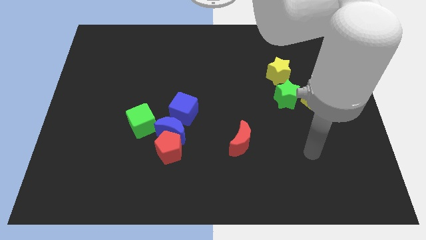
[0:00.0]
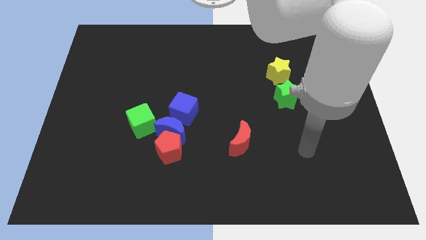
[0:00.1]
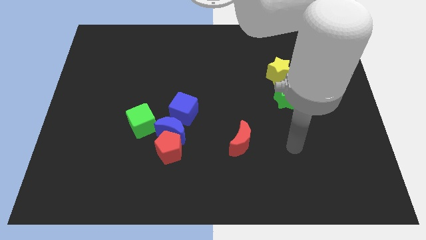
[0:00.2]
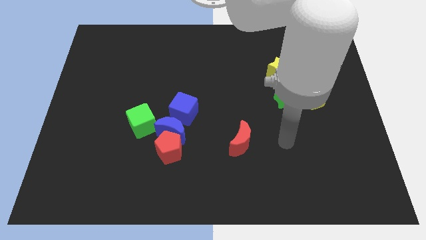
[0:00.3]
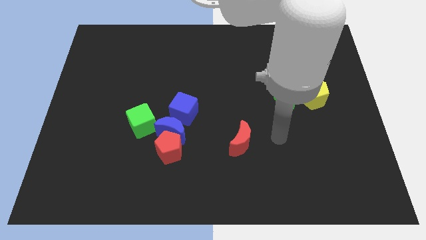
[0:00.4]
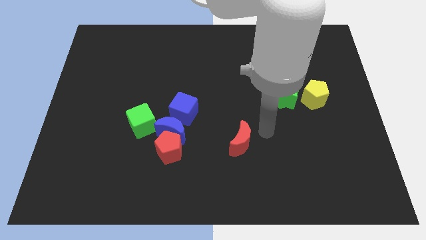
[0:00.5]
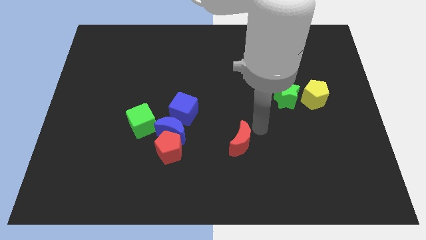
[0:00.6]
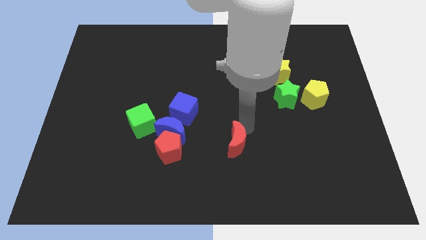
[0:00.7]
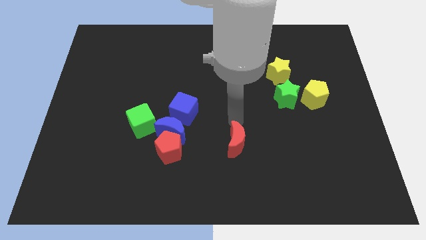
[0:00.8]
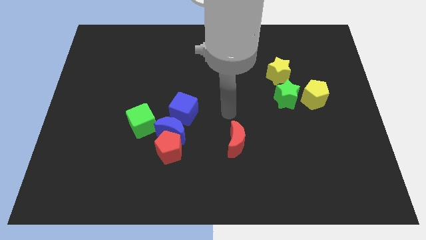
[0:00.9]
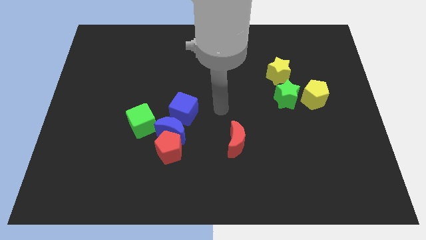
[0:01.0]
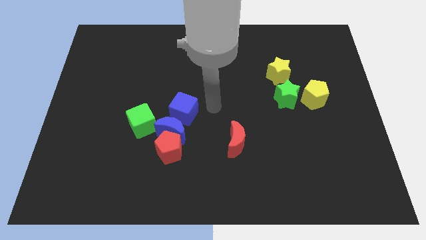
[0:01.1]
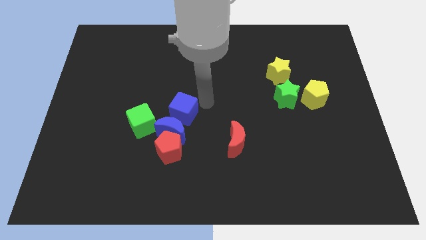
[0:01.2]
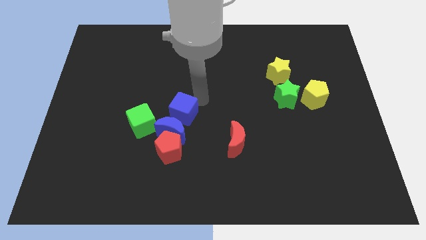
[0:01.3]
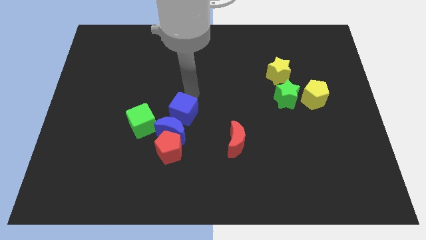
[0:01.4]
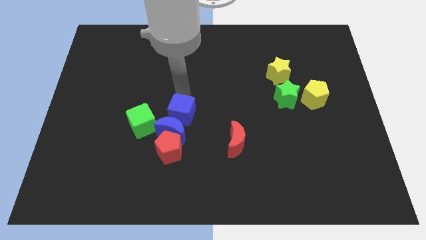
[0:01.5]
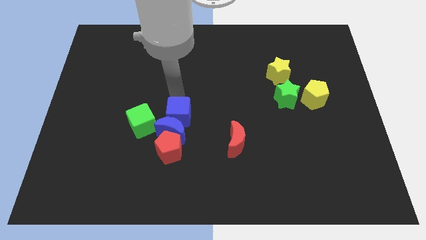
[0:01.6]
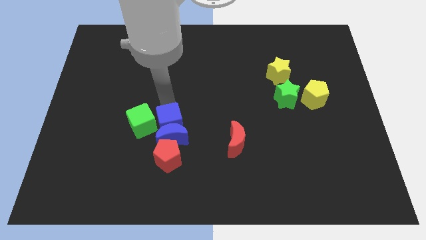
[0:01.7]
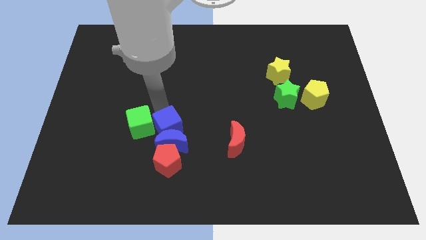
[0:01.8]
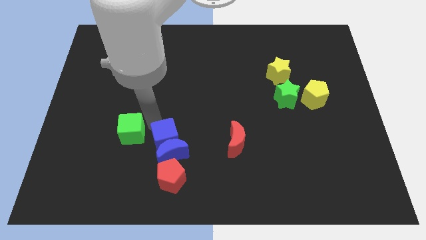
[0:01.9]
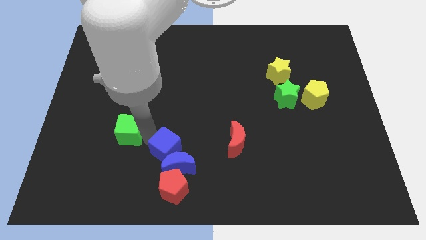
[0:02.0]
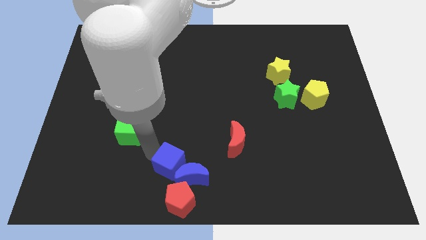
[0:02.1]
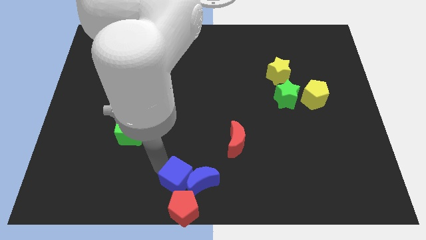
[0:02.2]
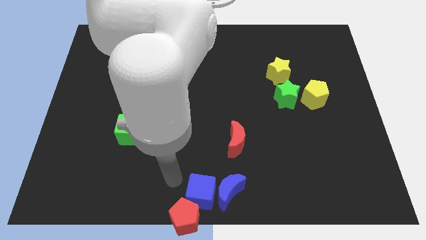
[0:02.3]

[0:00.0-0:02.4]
move the blue moon away from the group of blocks

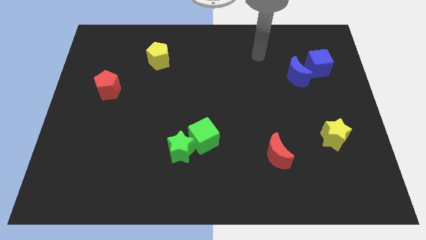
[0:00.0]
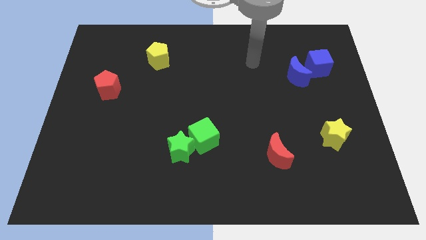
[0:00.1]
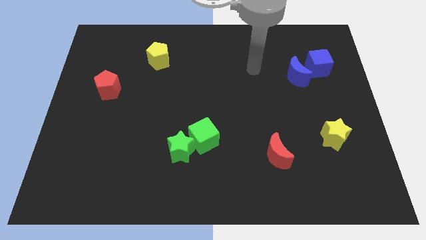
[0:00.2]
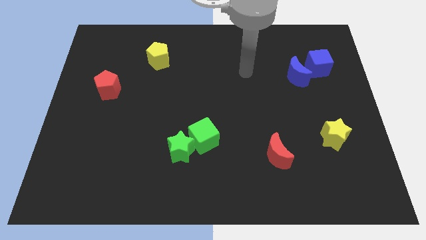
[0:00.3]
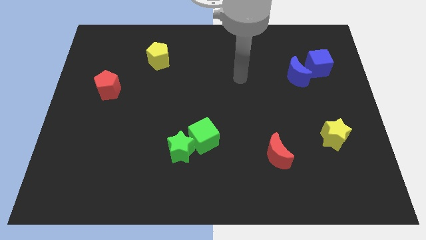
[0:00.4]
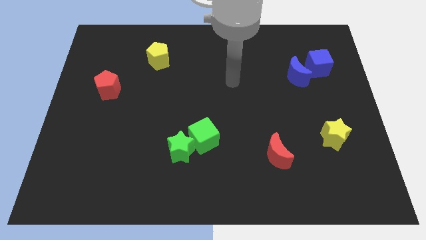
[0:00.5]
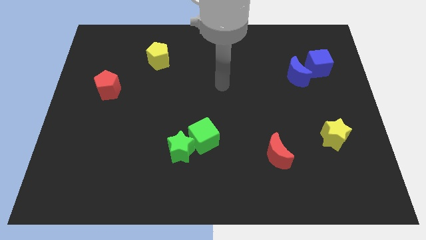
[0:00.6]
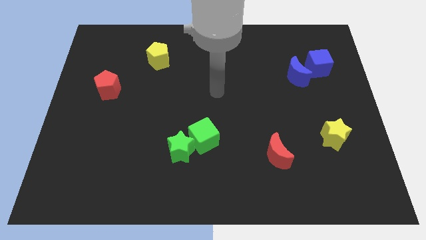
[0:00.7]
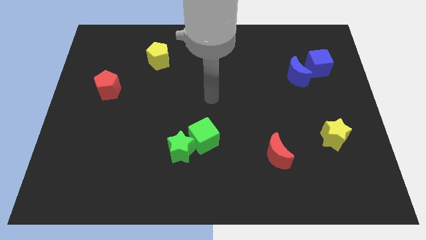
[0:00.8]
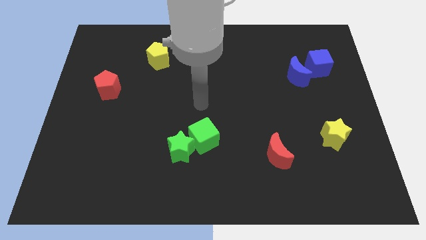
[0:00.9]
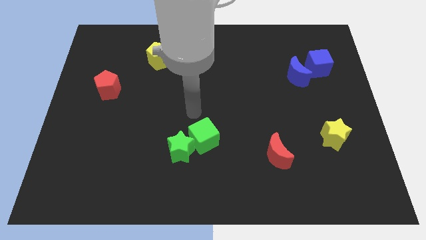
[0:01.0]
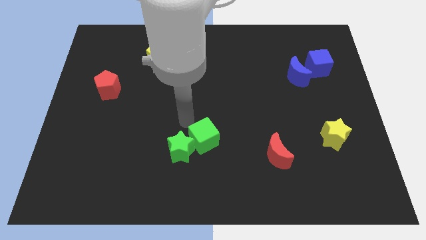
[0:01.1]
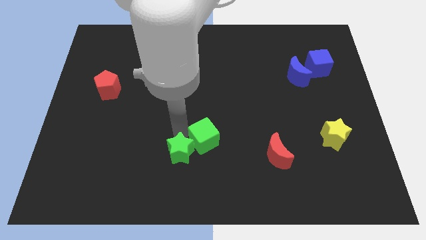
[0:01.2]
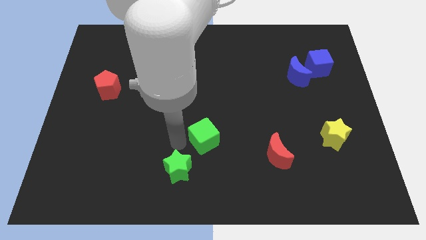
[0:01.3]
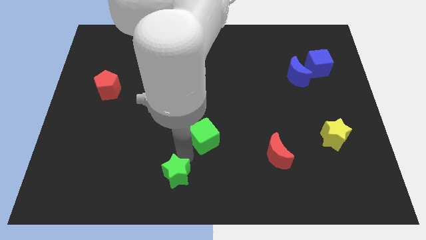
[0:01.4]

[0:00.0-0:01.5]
separate the green cube from the green star

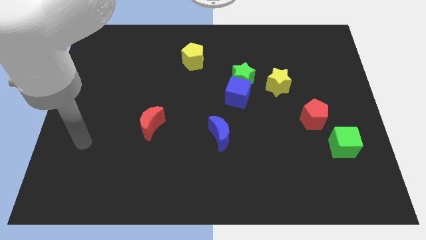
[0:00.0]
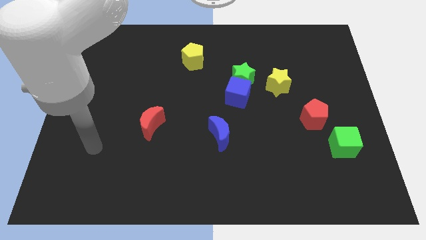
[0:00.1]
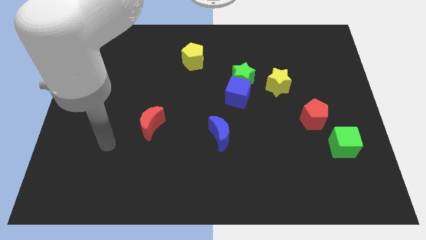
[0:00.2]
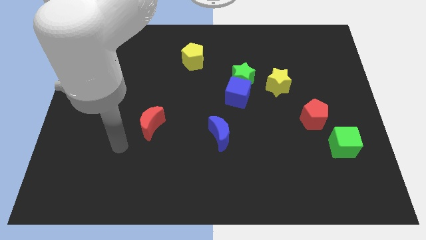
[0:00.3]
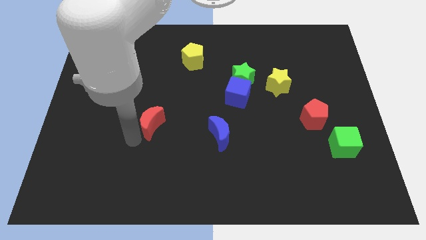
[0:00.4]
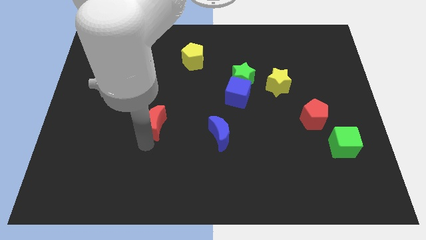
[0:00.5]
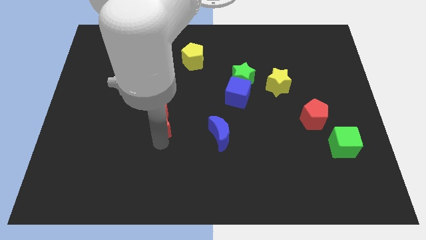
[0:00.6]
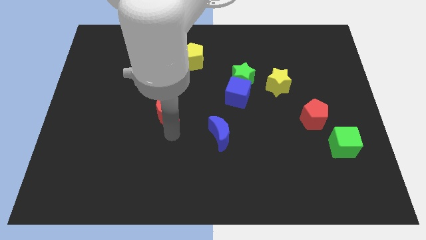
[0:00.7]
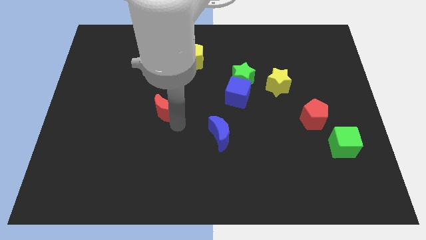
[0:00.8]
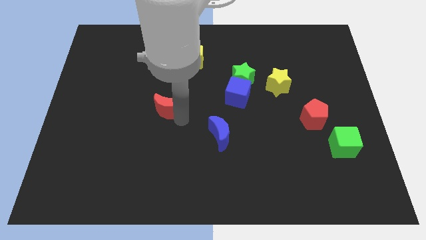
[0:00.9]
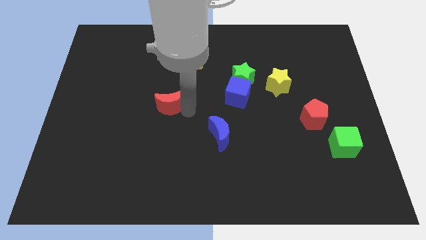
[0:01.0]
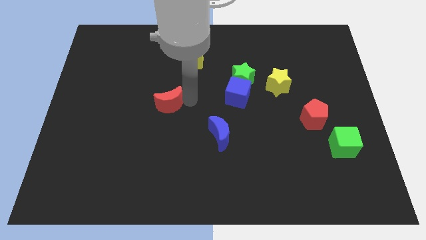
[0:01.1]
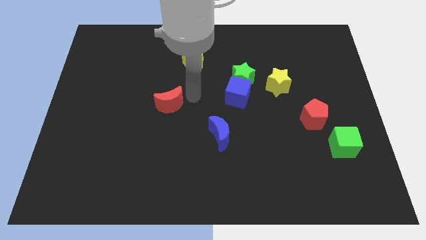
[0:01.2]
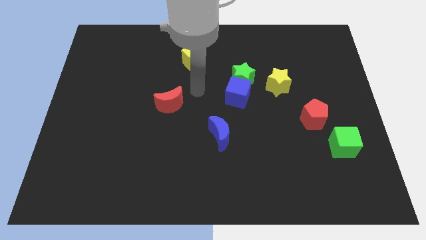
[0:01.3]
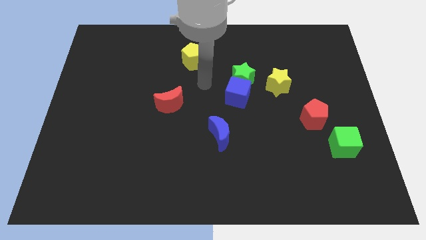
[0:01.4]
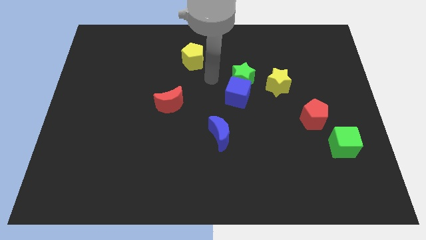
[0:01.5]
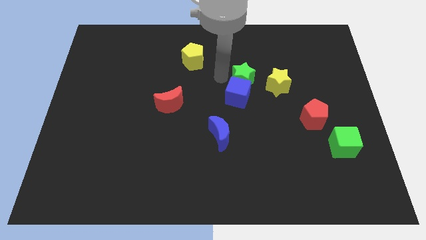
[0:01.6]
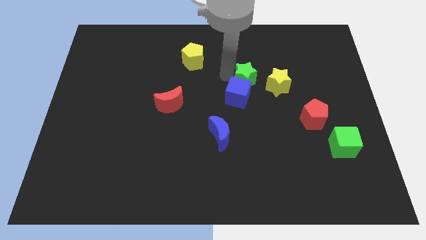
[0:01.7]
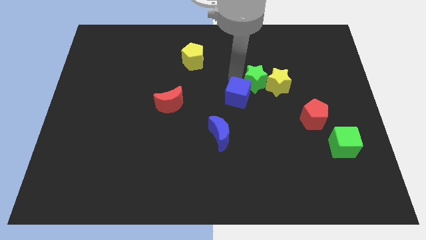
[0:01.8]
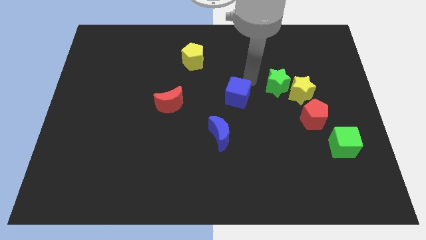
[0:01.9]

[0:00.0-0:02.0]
pull the blue cube apart from the green star

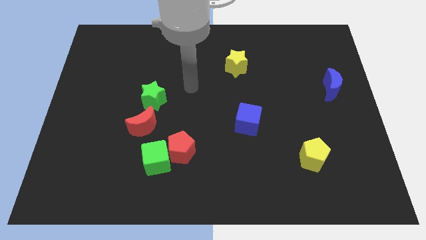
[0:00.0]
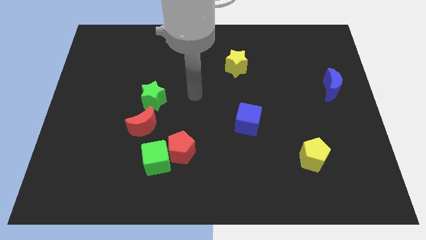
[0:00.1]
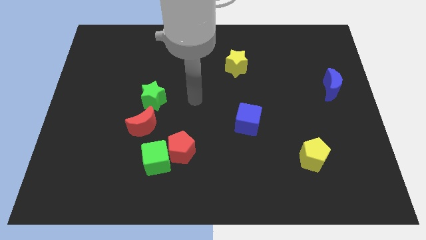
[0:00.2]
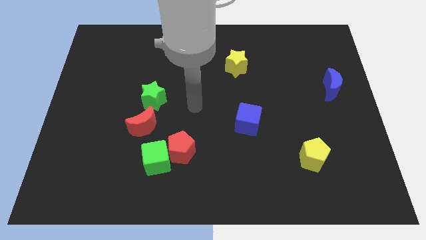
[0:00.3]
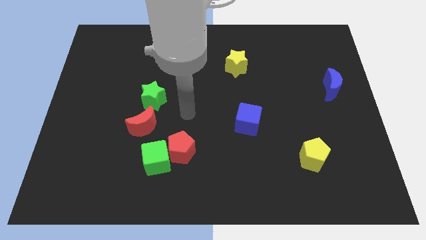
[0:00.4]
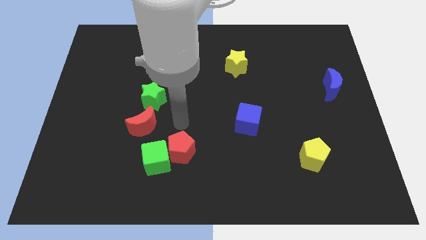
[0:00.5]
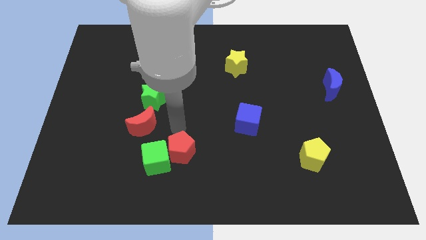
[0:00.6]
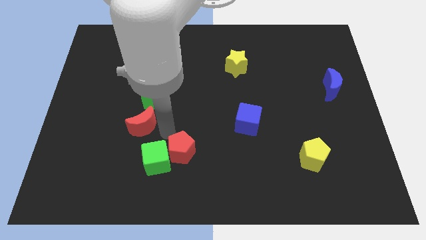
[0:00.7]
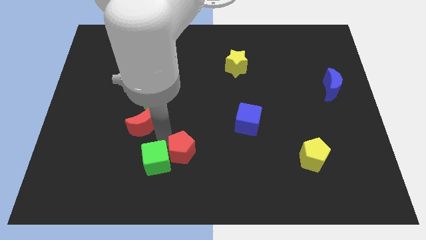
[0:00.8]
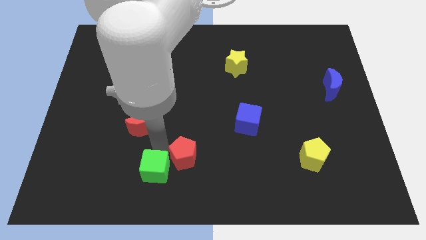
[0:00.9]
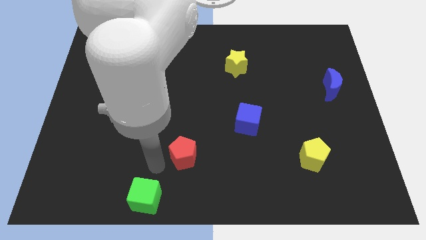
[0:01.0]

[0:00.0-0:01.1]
pull the red pentagon apart from the green cube

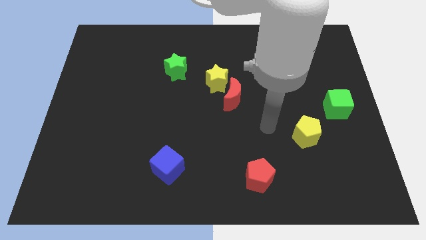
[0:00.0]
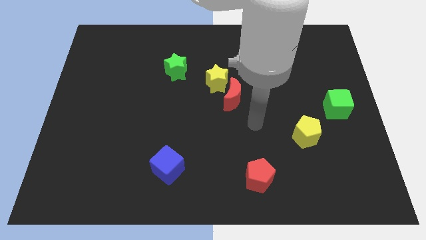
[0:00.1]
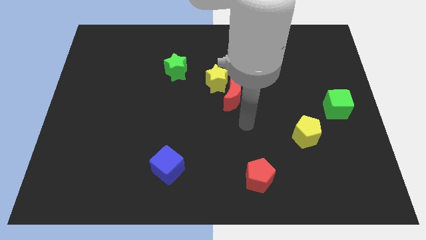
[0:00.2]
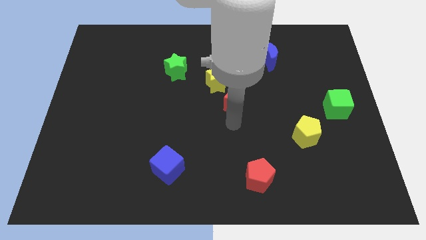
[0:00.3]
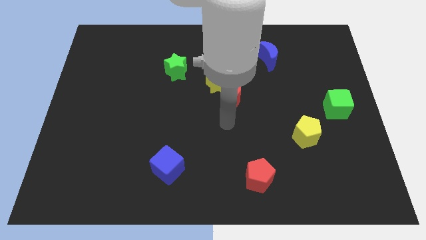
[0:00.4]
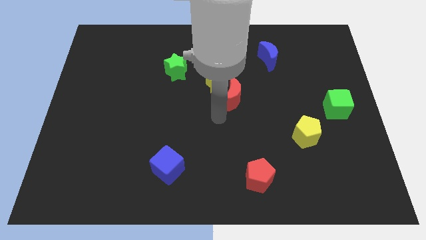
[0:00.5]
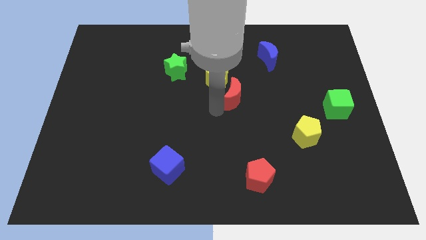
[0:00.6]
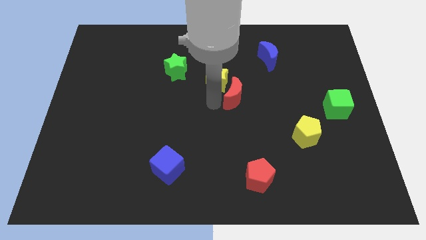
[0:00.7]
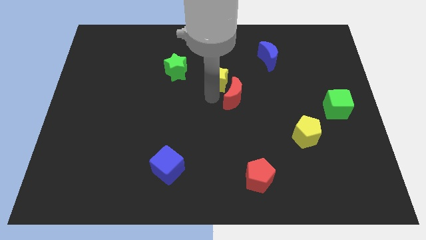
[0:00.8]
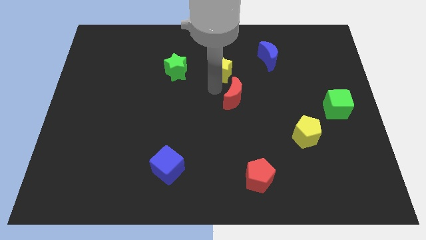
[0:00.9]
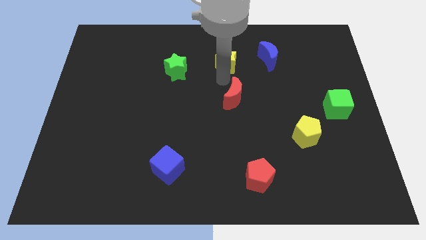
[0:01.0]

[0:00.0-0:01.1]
pull the red moon apart from the yellow star

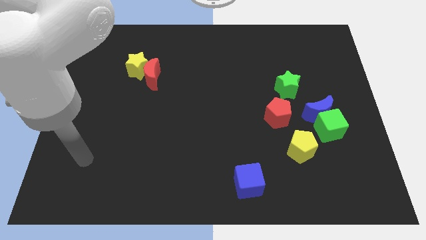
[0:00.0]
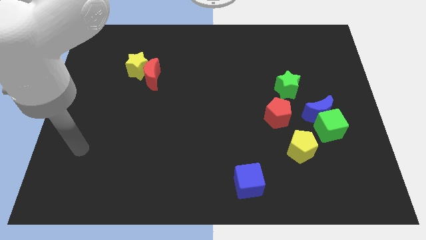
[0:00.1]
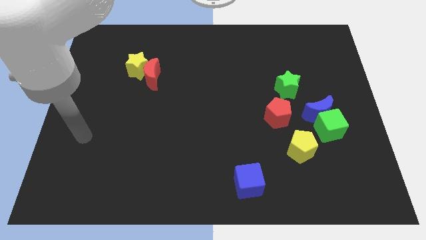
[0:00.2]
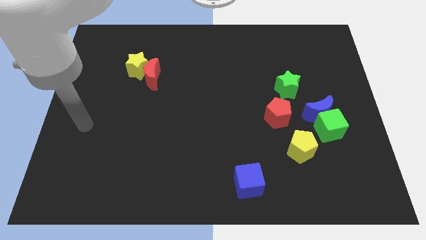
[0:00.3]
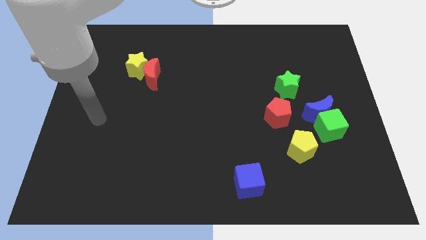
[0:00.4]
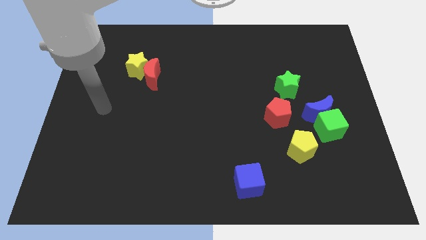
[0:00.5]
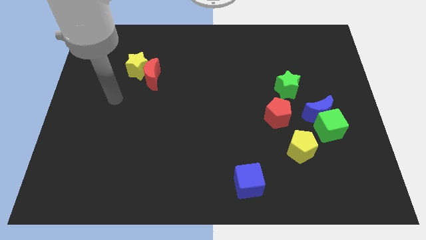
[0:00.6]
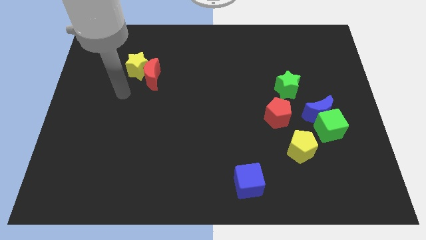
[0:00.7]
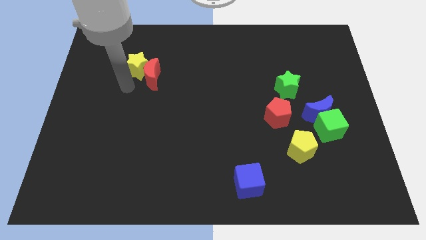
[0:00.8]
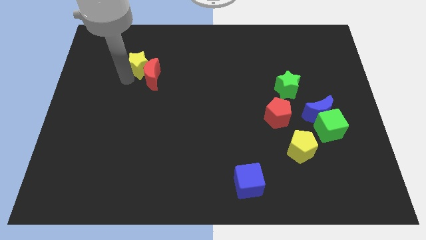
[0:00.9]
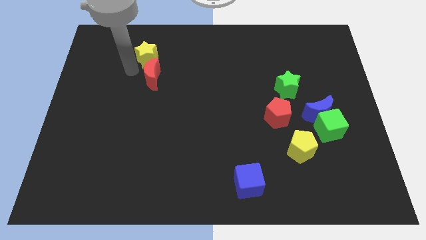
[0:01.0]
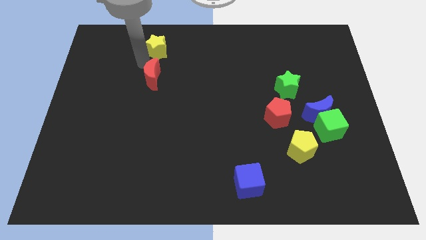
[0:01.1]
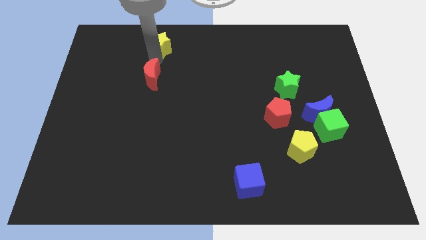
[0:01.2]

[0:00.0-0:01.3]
move the red moon away from the yellow star
